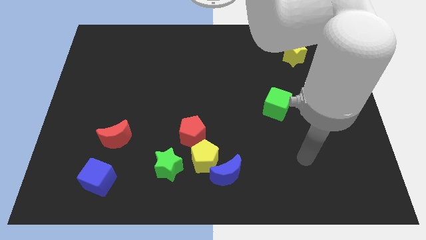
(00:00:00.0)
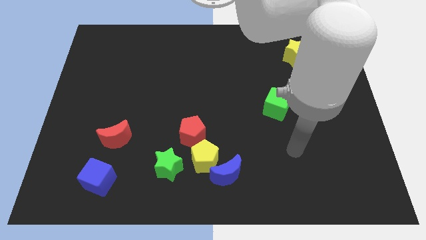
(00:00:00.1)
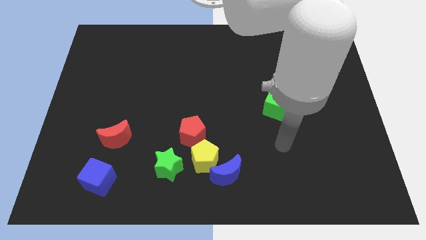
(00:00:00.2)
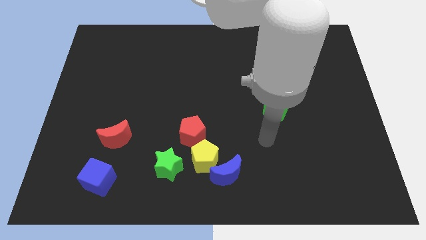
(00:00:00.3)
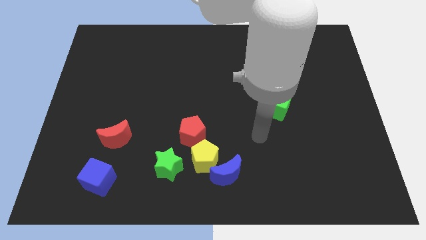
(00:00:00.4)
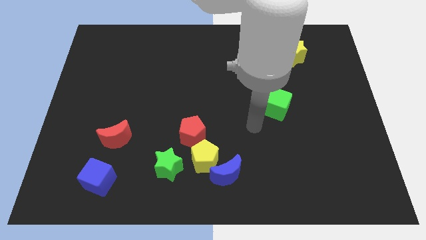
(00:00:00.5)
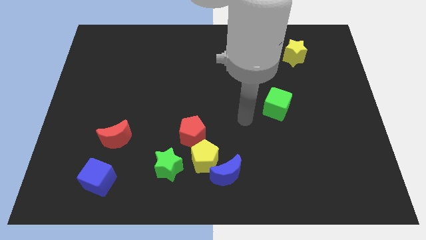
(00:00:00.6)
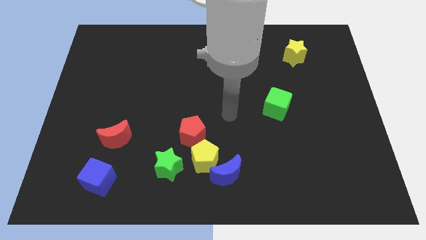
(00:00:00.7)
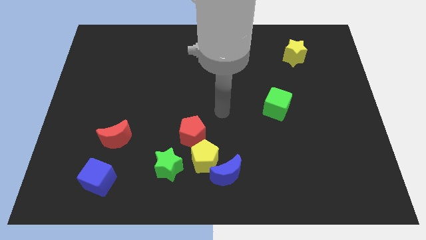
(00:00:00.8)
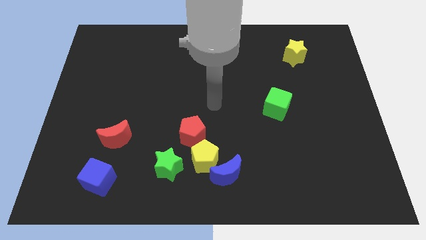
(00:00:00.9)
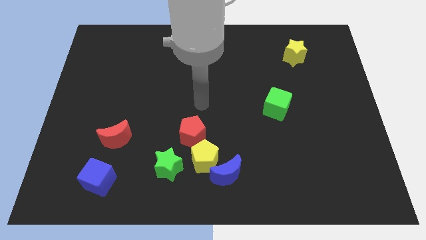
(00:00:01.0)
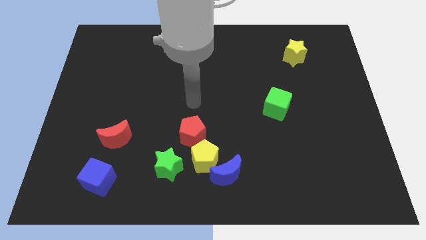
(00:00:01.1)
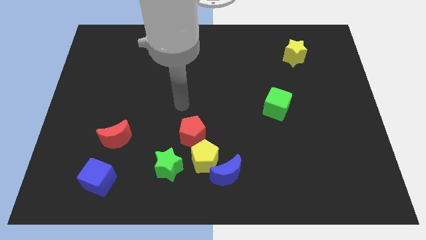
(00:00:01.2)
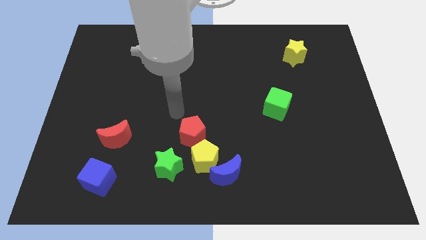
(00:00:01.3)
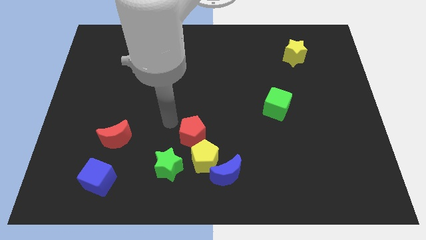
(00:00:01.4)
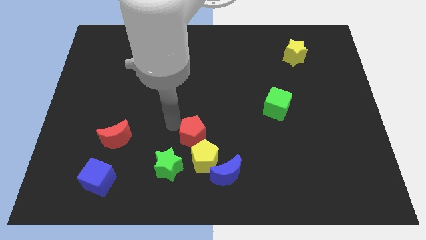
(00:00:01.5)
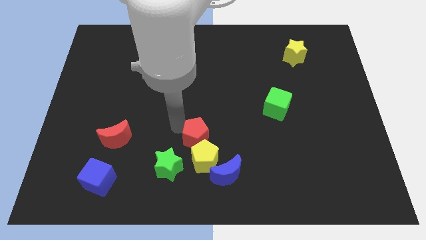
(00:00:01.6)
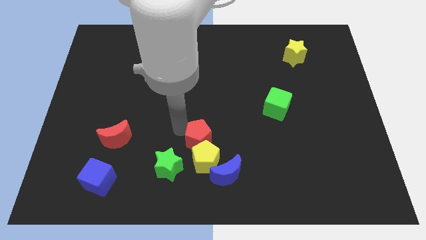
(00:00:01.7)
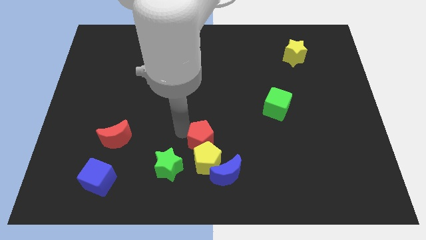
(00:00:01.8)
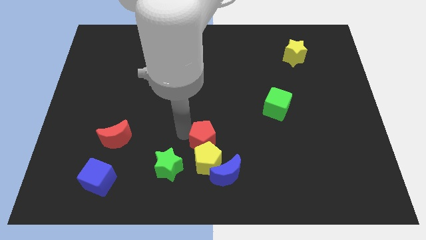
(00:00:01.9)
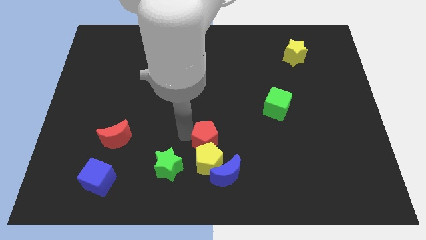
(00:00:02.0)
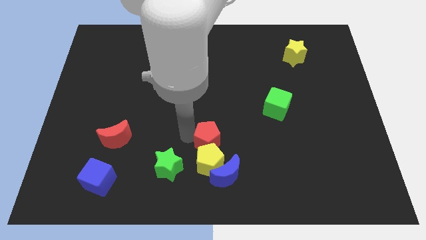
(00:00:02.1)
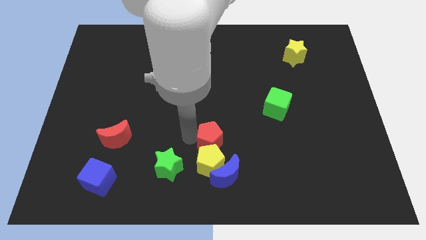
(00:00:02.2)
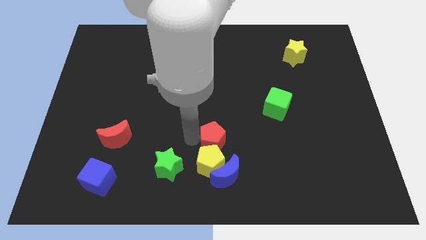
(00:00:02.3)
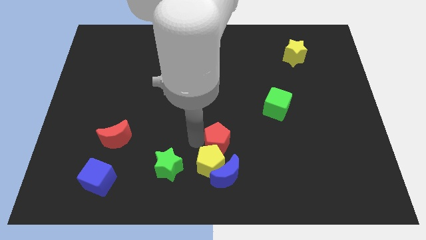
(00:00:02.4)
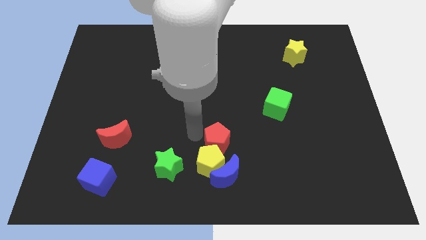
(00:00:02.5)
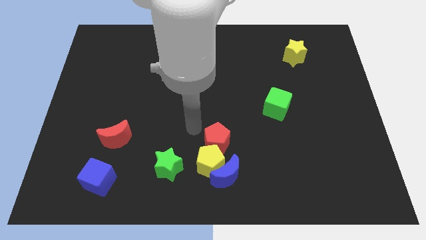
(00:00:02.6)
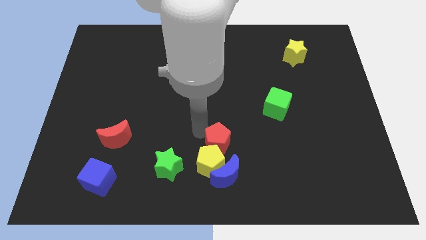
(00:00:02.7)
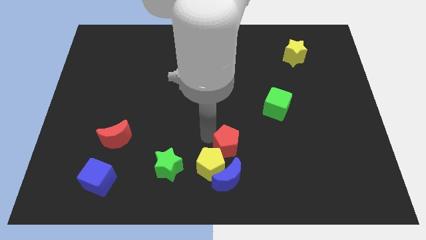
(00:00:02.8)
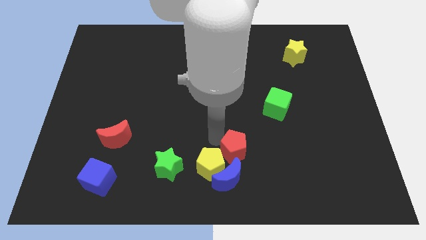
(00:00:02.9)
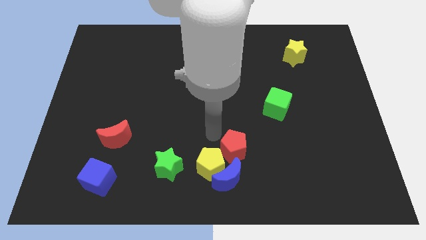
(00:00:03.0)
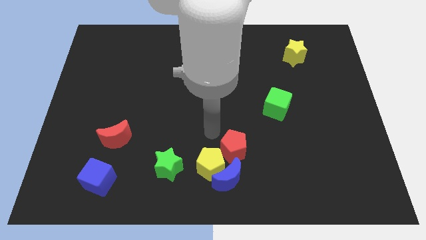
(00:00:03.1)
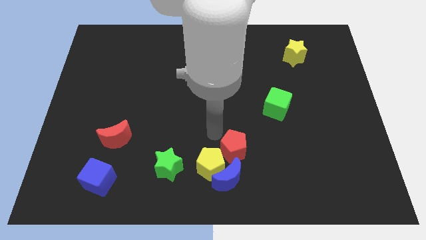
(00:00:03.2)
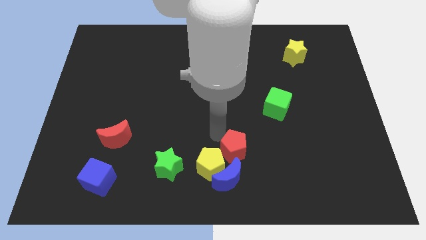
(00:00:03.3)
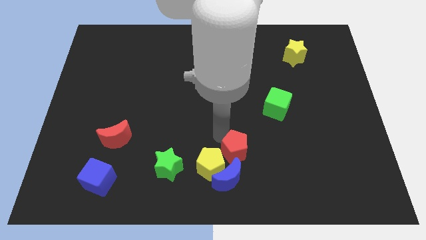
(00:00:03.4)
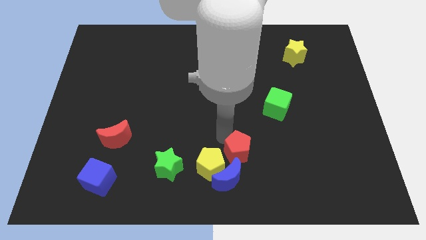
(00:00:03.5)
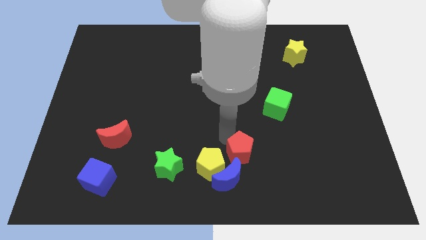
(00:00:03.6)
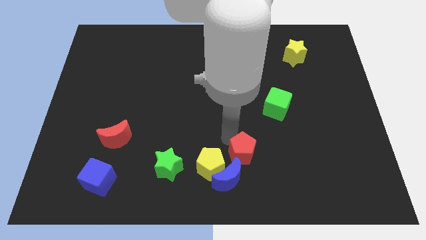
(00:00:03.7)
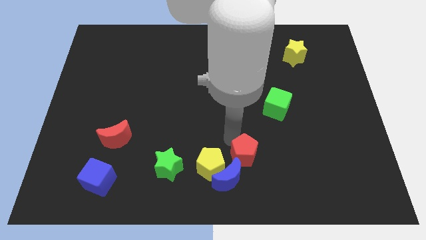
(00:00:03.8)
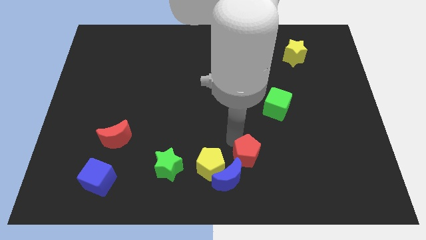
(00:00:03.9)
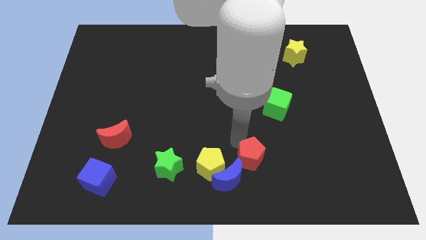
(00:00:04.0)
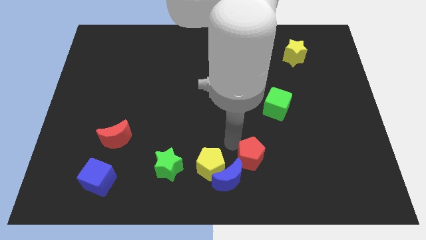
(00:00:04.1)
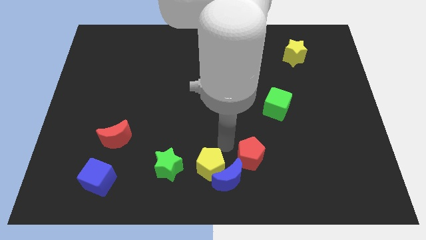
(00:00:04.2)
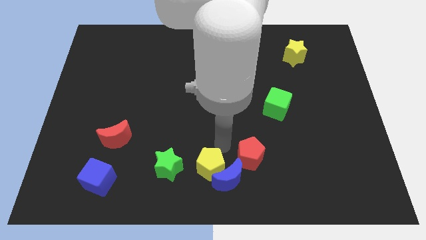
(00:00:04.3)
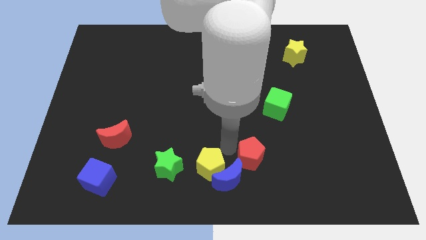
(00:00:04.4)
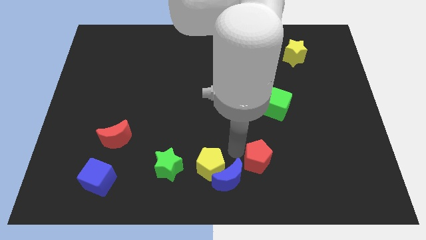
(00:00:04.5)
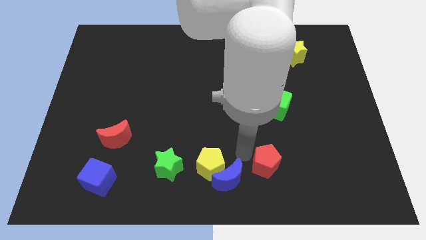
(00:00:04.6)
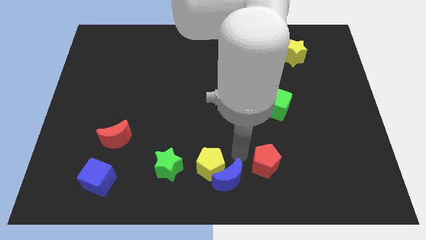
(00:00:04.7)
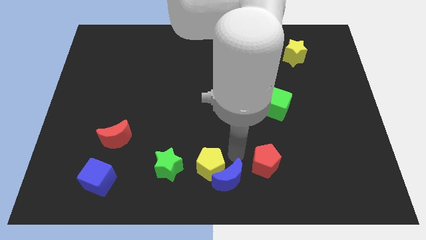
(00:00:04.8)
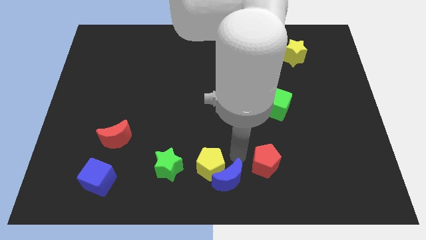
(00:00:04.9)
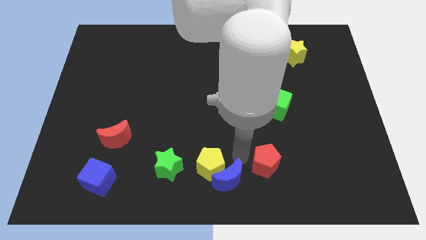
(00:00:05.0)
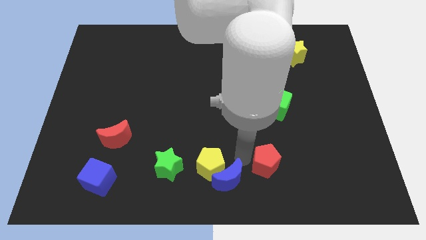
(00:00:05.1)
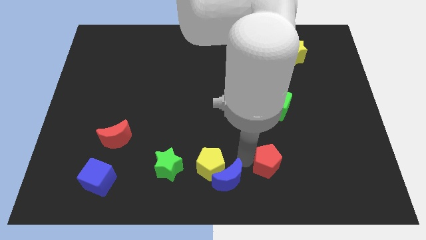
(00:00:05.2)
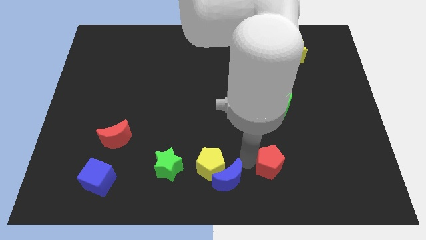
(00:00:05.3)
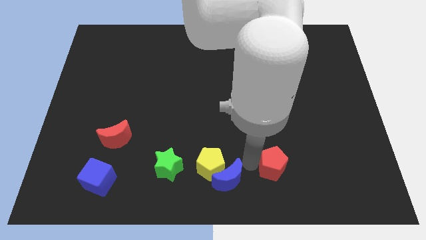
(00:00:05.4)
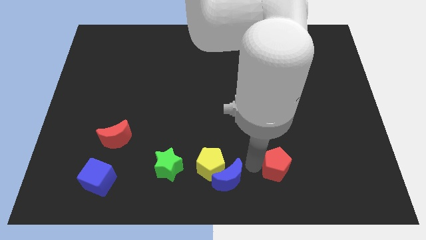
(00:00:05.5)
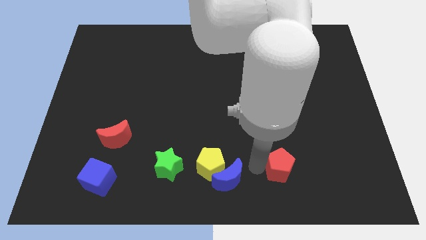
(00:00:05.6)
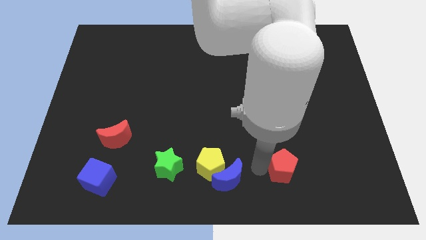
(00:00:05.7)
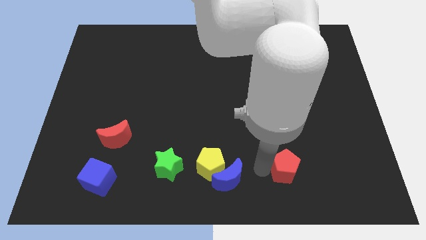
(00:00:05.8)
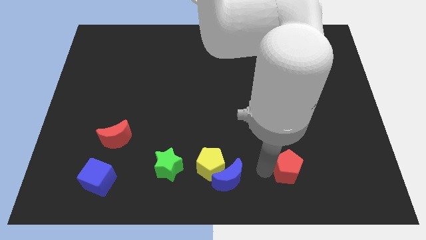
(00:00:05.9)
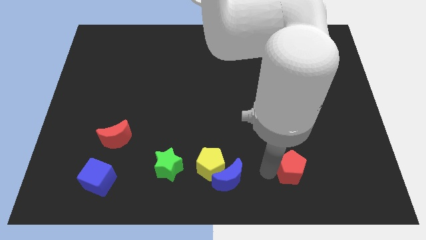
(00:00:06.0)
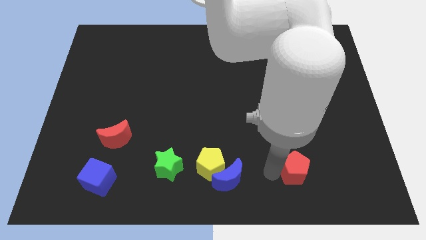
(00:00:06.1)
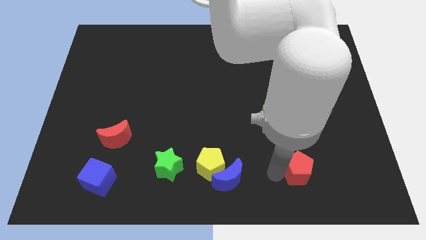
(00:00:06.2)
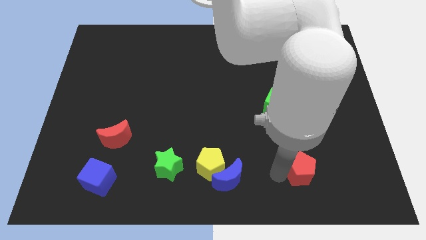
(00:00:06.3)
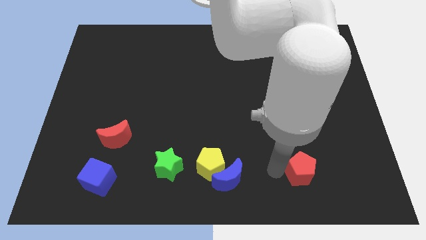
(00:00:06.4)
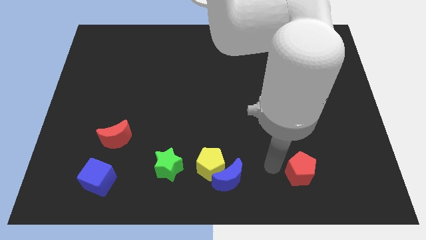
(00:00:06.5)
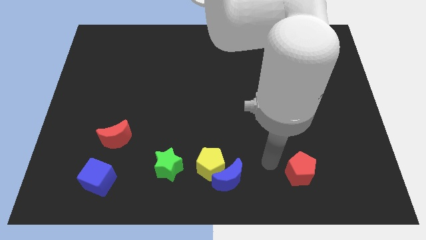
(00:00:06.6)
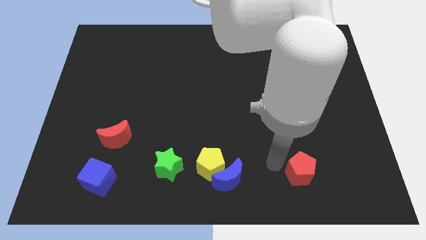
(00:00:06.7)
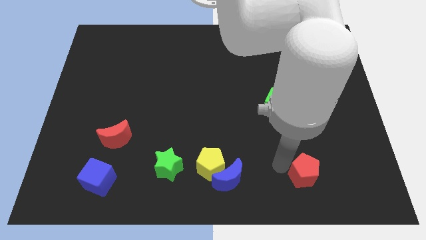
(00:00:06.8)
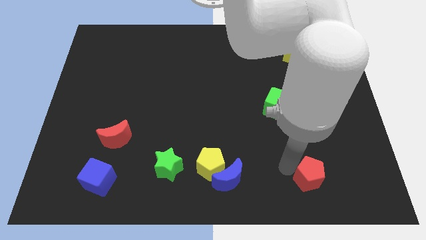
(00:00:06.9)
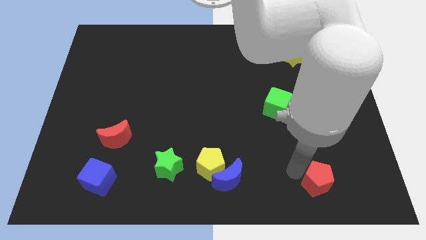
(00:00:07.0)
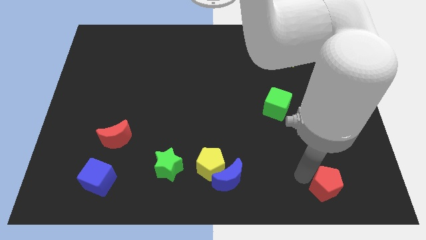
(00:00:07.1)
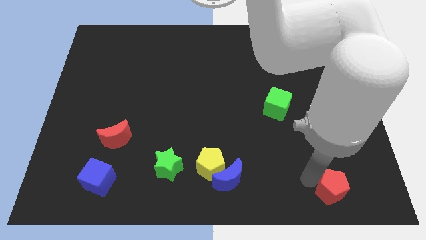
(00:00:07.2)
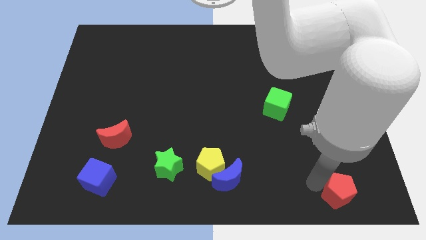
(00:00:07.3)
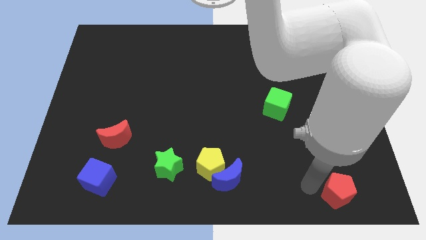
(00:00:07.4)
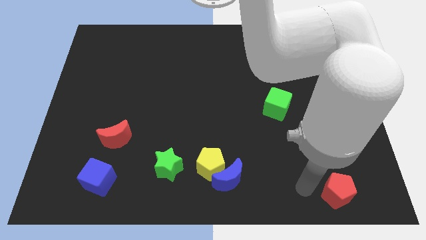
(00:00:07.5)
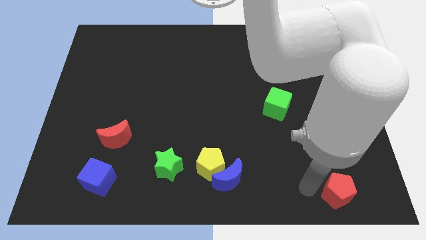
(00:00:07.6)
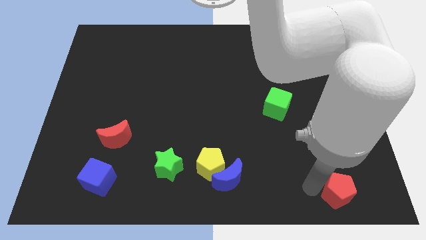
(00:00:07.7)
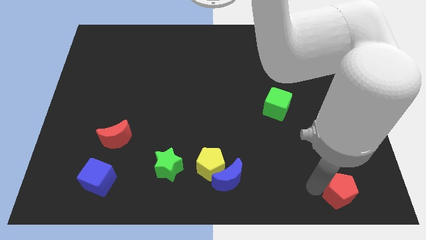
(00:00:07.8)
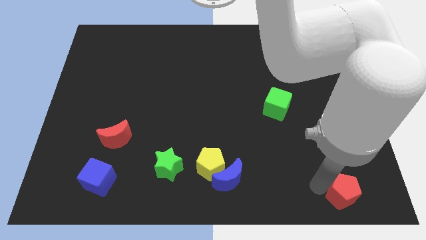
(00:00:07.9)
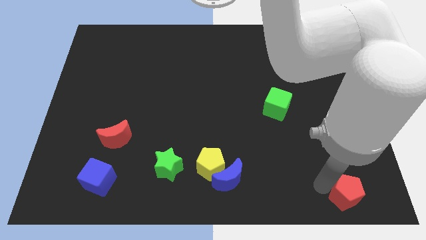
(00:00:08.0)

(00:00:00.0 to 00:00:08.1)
slide the red pentagon to the lower right corner
